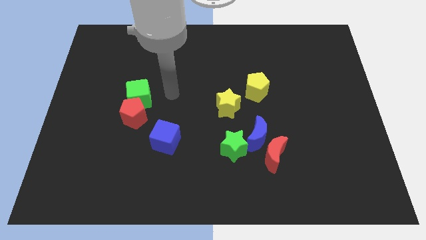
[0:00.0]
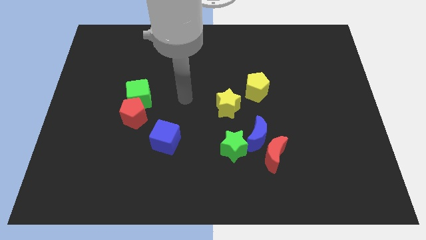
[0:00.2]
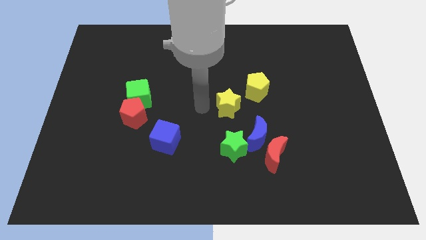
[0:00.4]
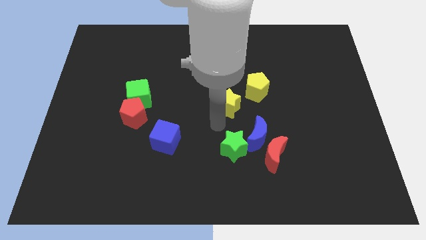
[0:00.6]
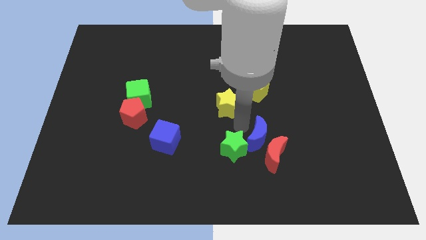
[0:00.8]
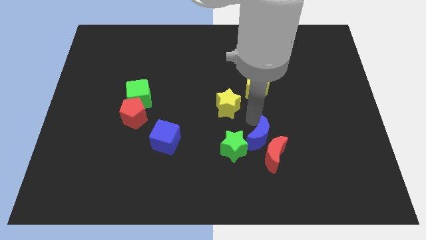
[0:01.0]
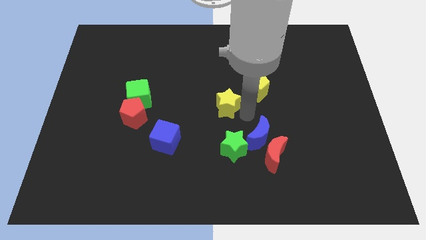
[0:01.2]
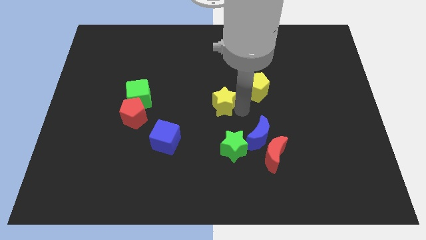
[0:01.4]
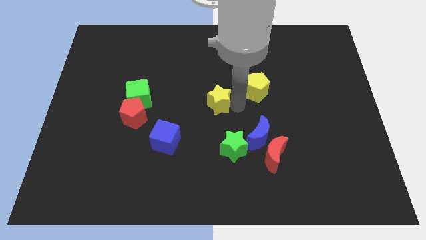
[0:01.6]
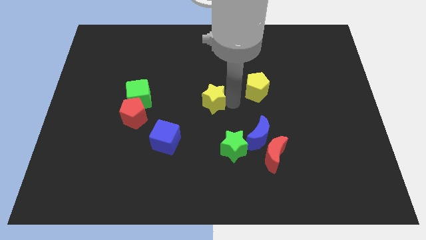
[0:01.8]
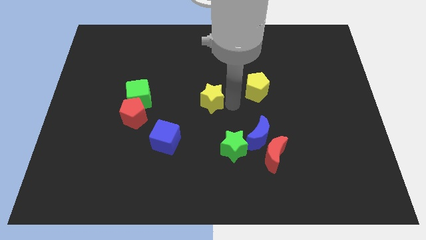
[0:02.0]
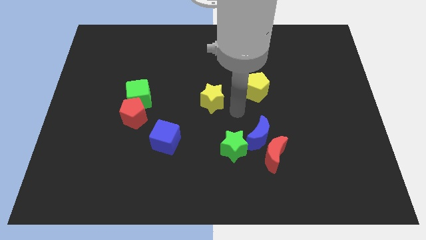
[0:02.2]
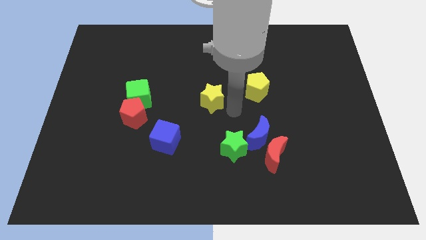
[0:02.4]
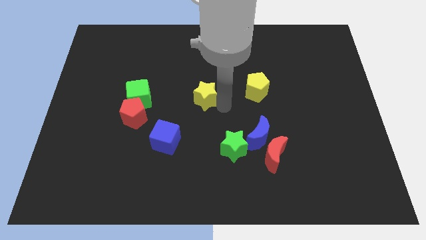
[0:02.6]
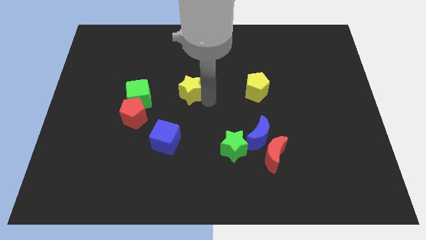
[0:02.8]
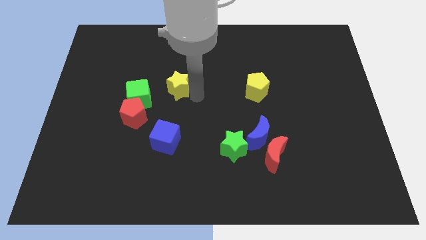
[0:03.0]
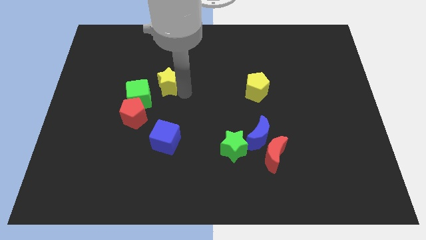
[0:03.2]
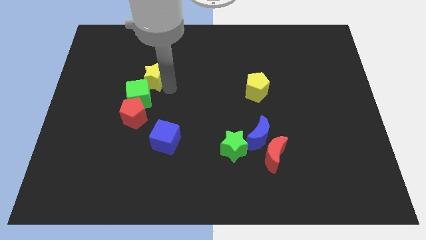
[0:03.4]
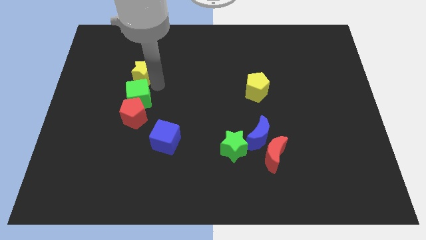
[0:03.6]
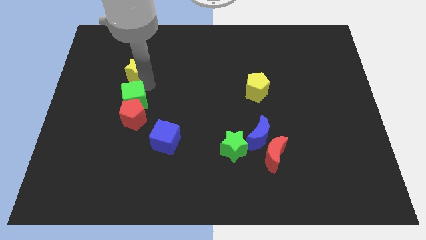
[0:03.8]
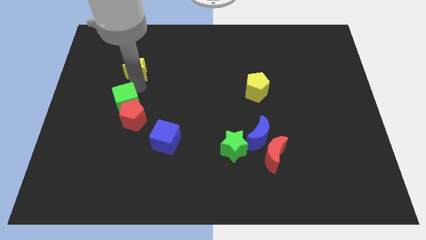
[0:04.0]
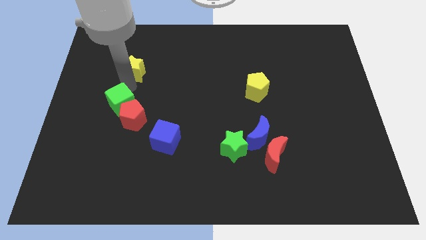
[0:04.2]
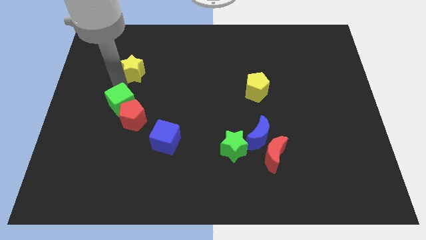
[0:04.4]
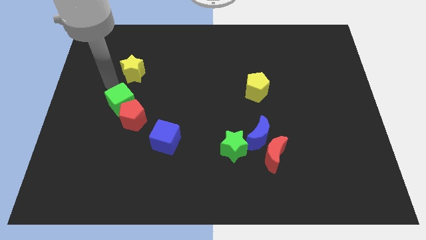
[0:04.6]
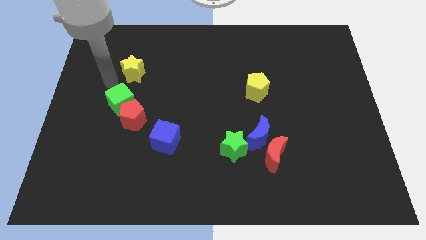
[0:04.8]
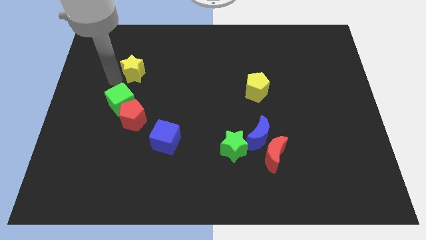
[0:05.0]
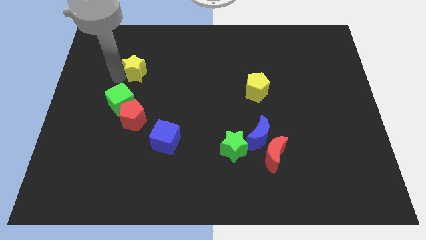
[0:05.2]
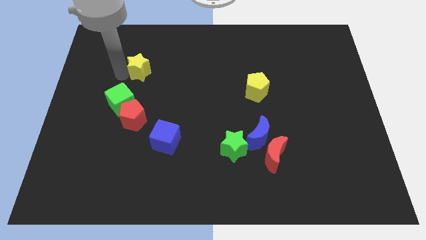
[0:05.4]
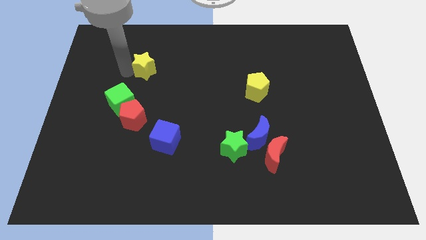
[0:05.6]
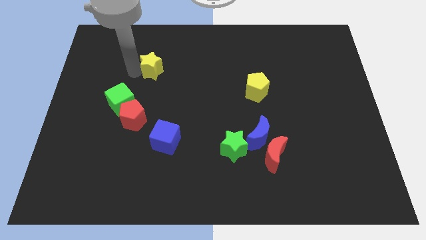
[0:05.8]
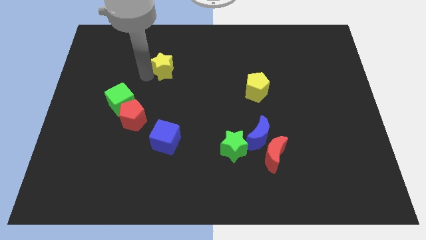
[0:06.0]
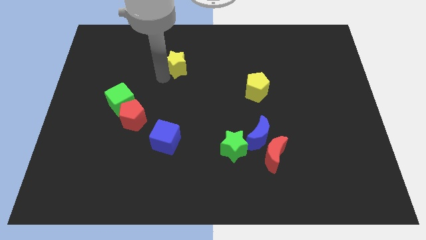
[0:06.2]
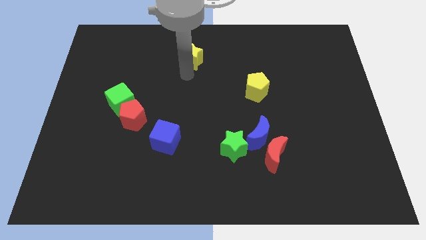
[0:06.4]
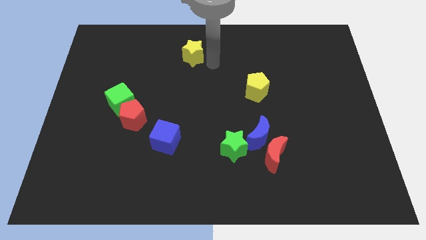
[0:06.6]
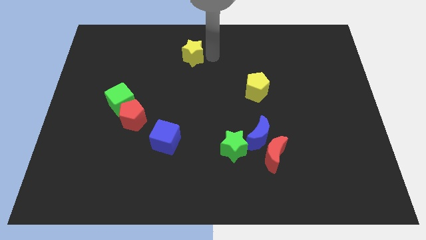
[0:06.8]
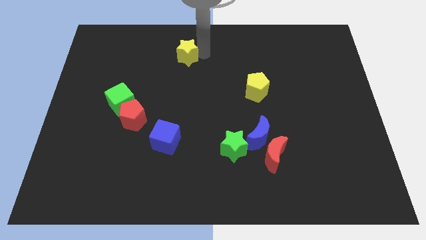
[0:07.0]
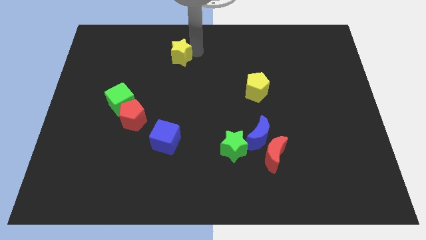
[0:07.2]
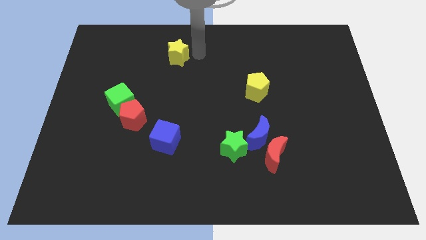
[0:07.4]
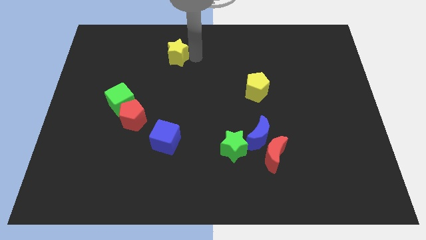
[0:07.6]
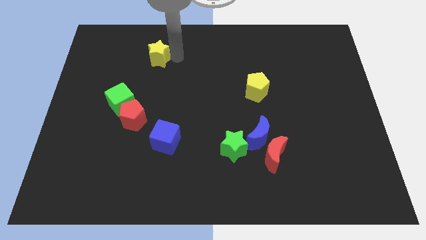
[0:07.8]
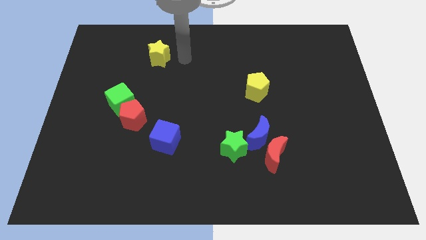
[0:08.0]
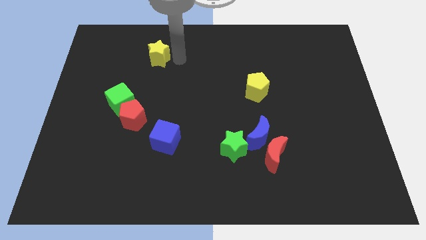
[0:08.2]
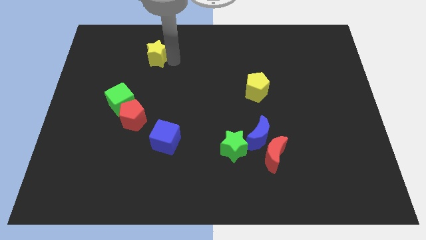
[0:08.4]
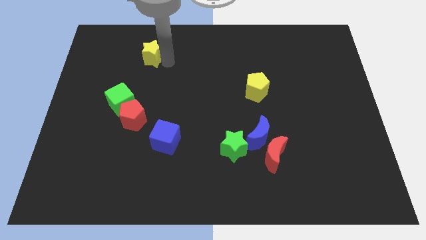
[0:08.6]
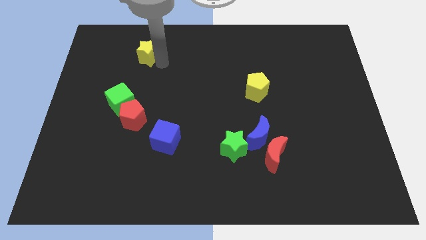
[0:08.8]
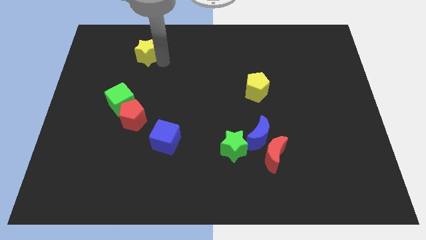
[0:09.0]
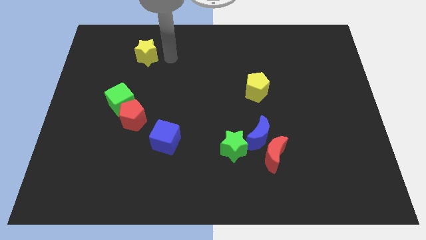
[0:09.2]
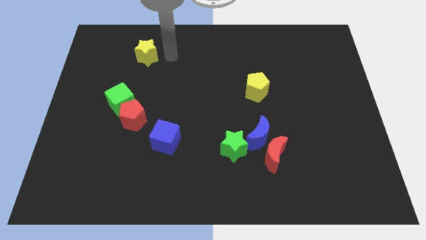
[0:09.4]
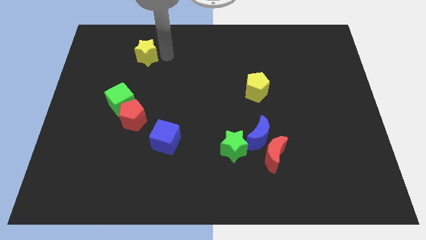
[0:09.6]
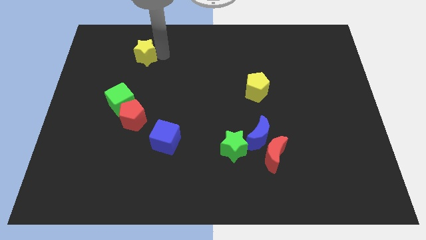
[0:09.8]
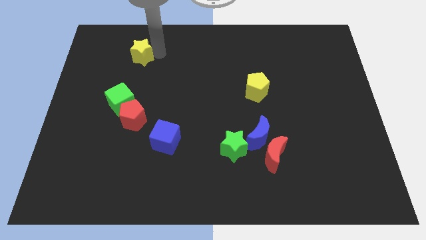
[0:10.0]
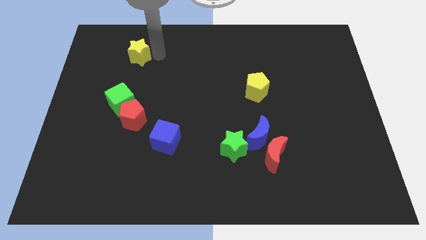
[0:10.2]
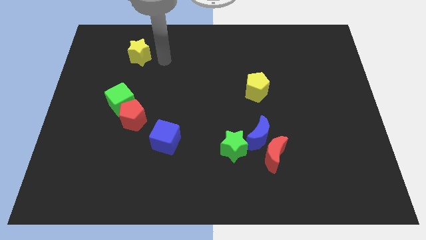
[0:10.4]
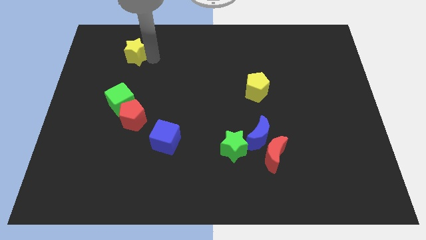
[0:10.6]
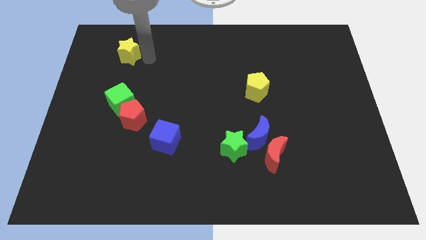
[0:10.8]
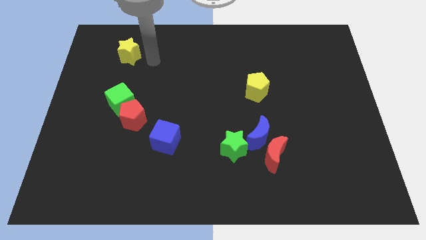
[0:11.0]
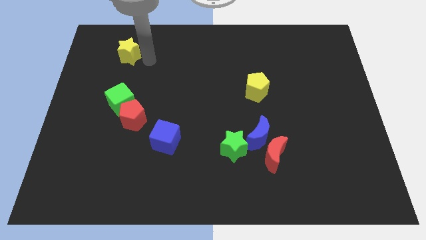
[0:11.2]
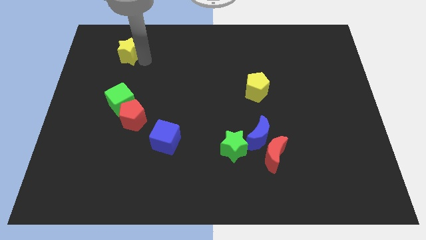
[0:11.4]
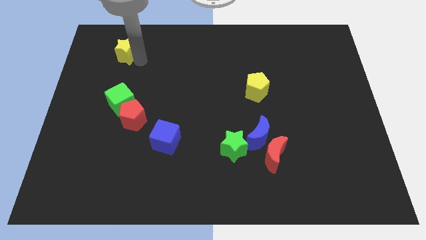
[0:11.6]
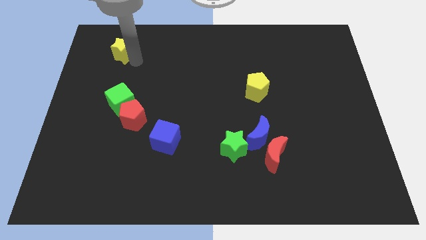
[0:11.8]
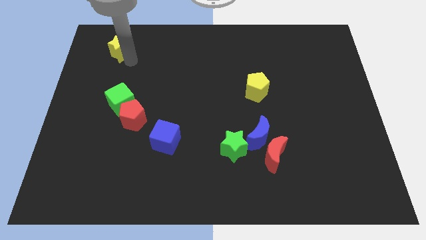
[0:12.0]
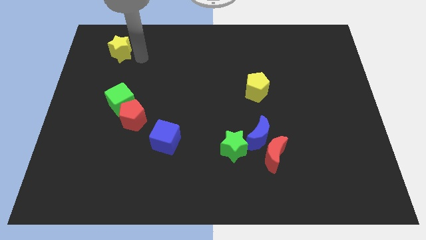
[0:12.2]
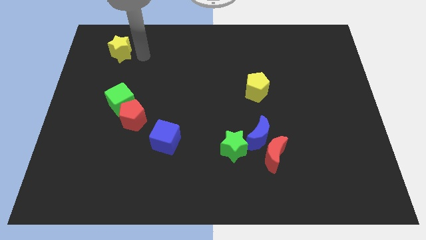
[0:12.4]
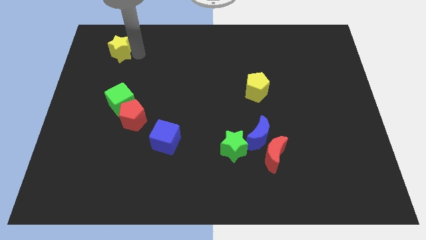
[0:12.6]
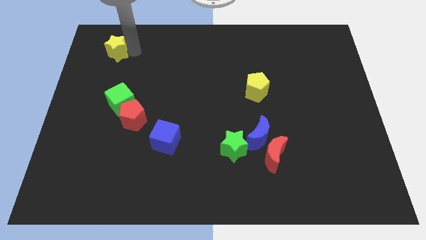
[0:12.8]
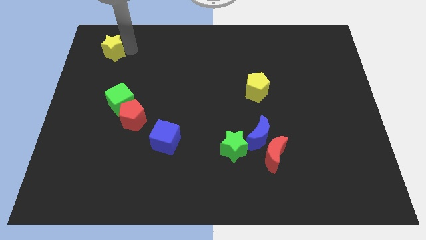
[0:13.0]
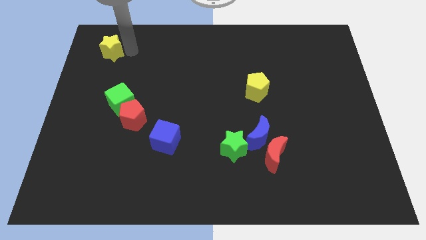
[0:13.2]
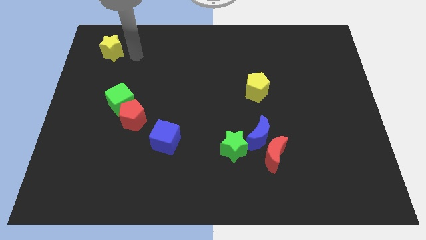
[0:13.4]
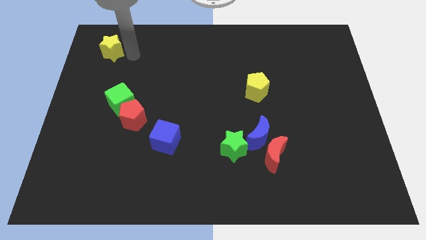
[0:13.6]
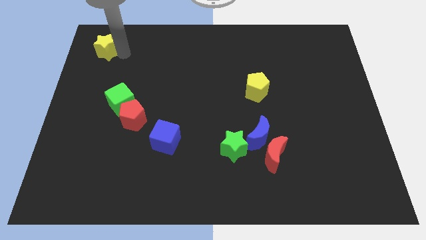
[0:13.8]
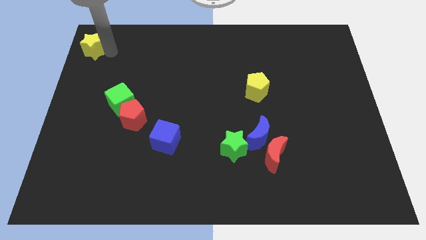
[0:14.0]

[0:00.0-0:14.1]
put the yellow star to the top left corner
